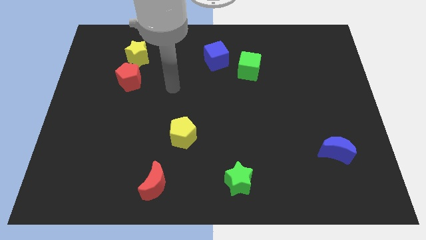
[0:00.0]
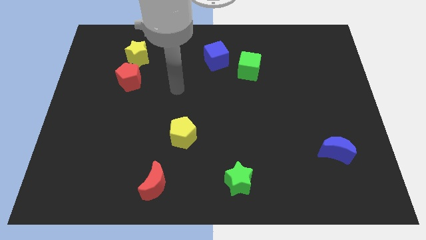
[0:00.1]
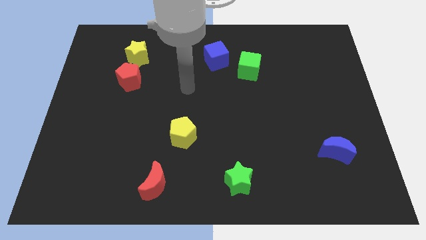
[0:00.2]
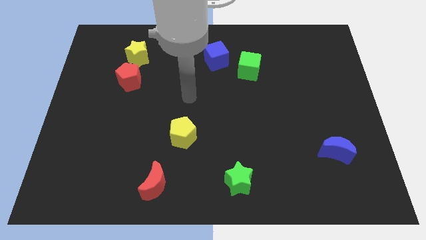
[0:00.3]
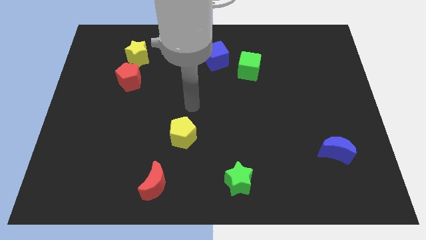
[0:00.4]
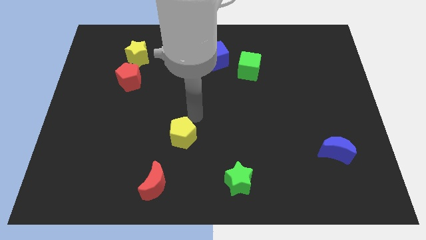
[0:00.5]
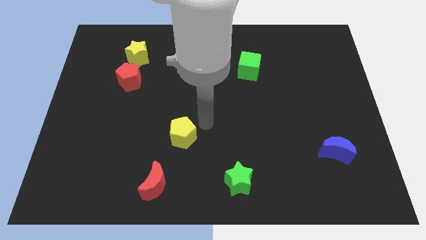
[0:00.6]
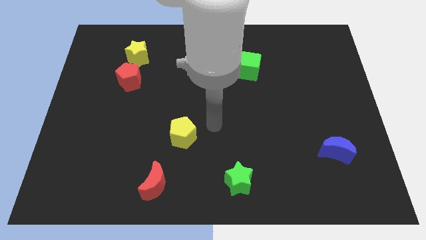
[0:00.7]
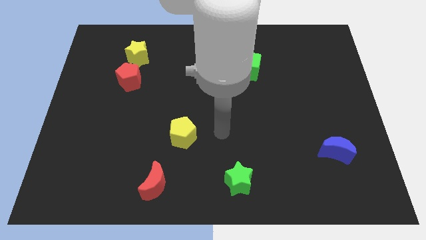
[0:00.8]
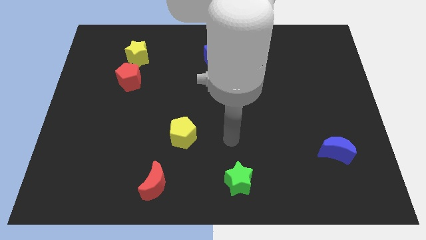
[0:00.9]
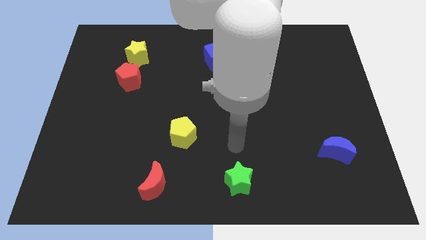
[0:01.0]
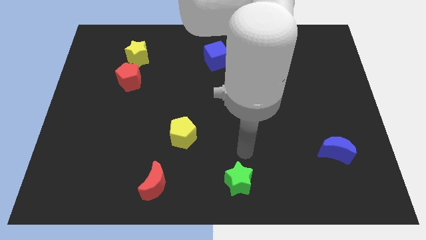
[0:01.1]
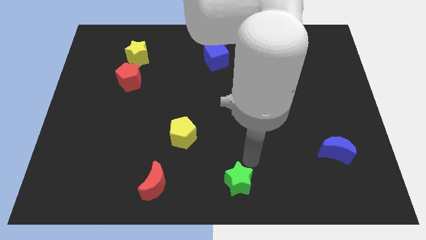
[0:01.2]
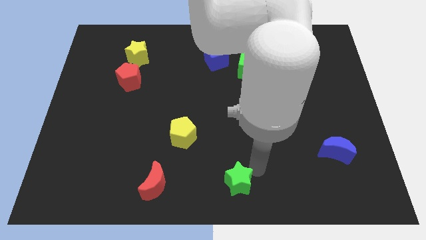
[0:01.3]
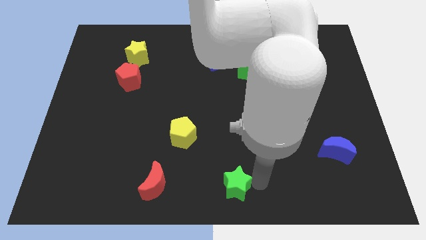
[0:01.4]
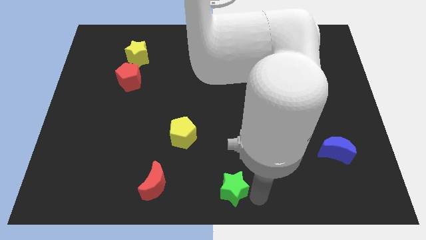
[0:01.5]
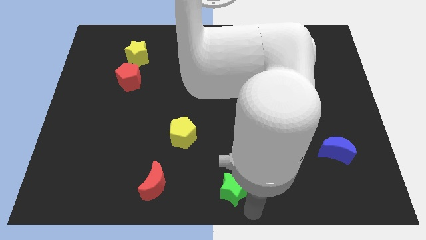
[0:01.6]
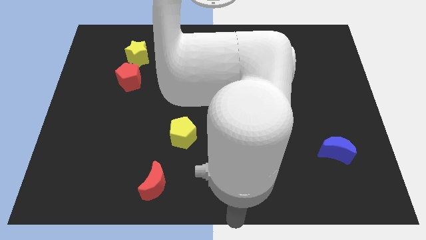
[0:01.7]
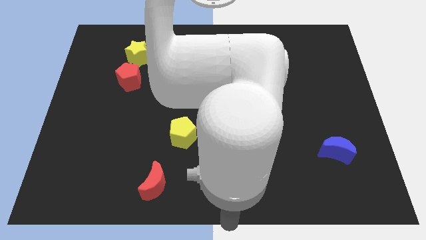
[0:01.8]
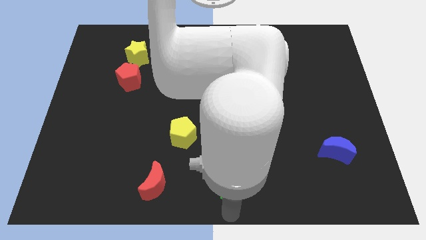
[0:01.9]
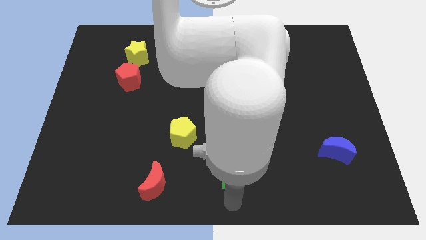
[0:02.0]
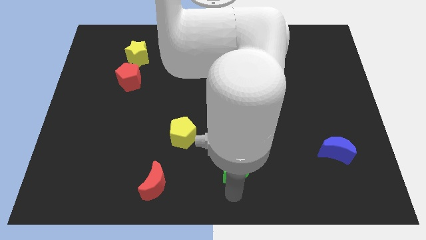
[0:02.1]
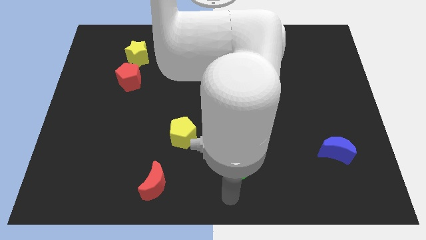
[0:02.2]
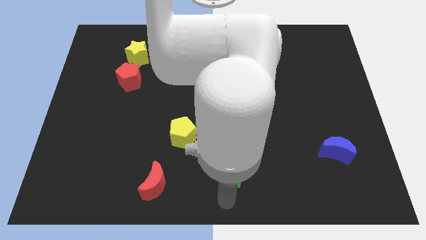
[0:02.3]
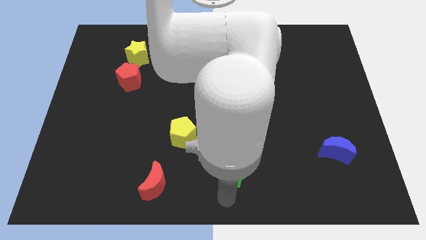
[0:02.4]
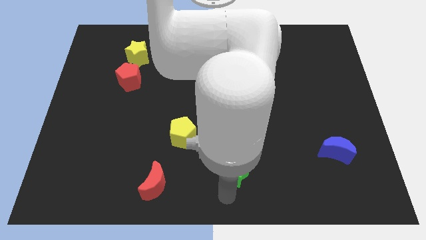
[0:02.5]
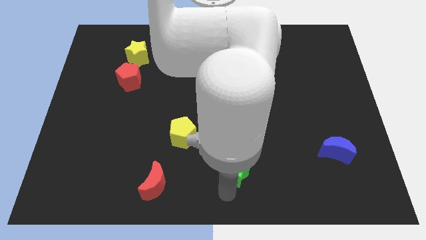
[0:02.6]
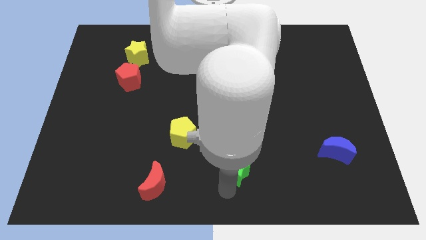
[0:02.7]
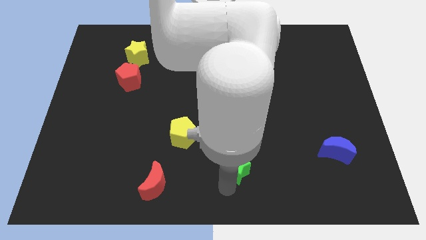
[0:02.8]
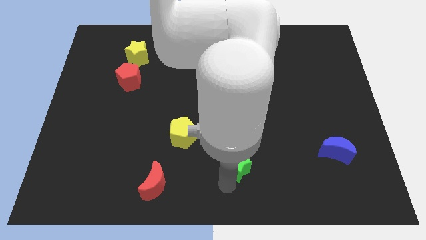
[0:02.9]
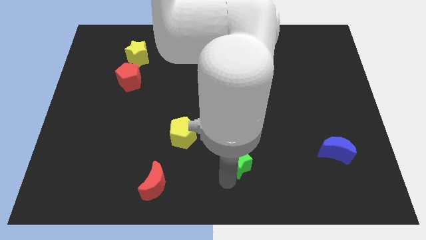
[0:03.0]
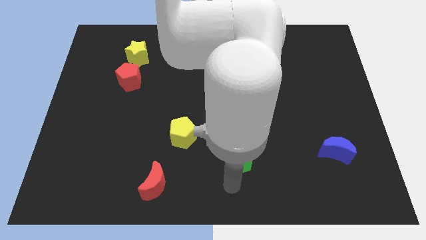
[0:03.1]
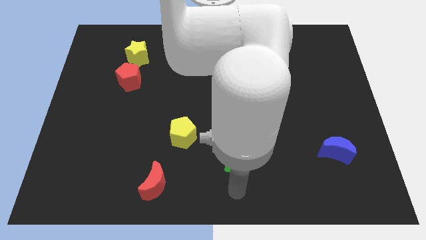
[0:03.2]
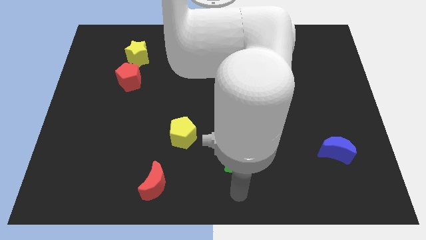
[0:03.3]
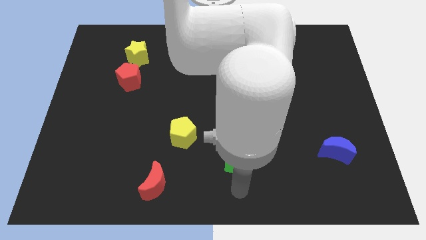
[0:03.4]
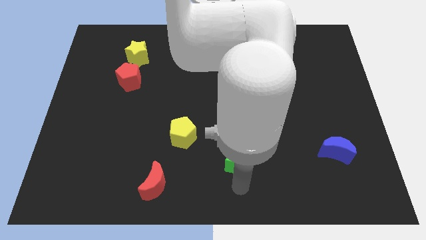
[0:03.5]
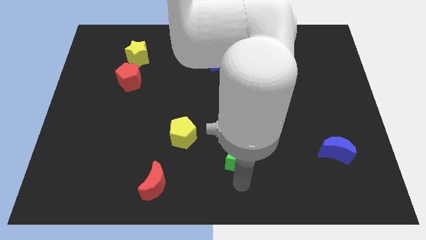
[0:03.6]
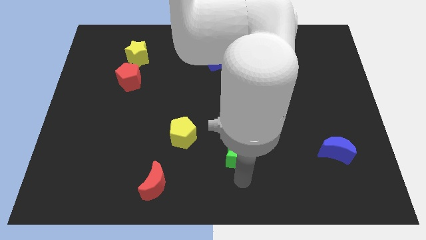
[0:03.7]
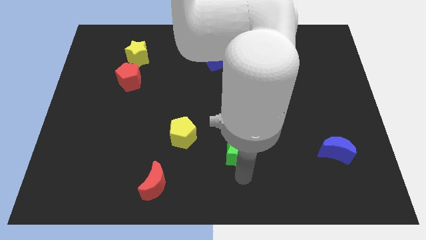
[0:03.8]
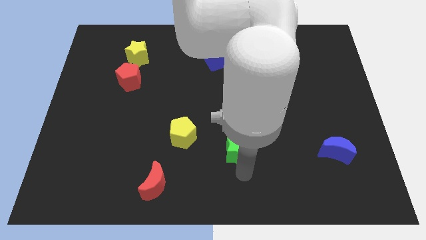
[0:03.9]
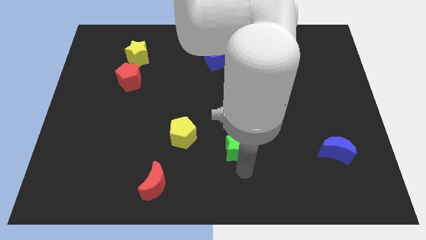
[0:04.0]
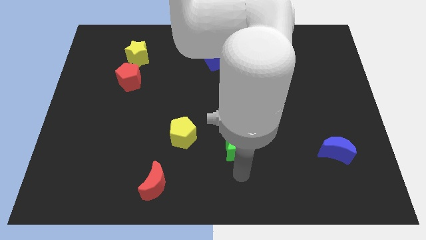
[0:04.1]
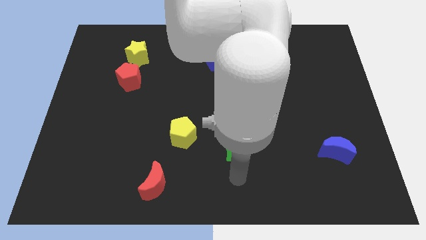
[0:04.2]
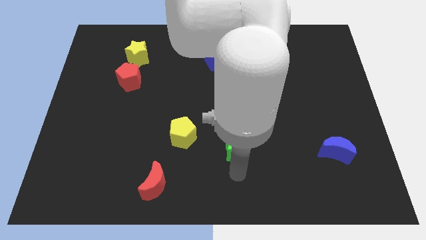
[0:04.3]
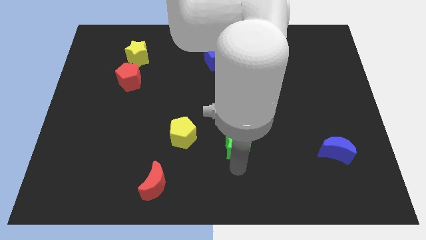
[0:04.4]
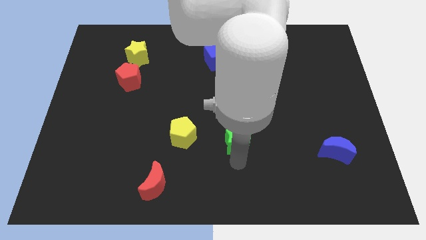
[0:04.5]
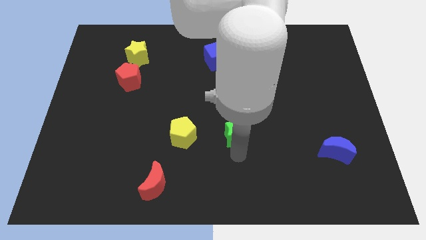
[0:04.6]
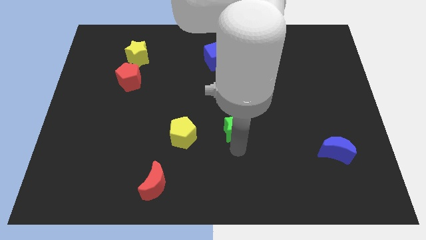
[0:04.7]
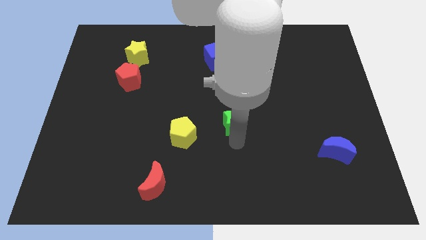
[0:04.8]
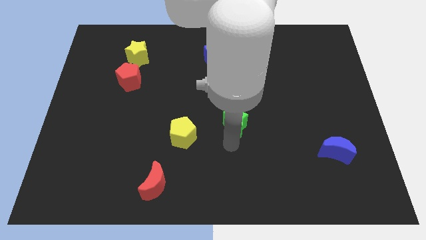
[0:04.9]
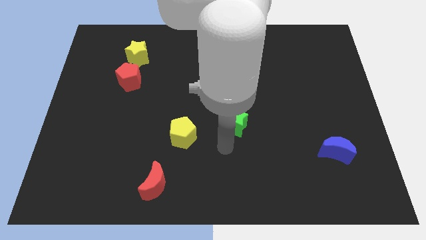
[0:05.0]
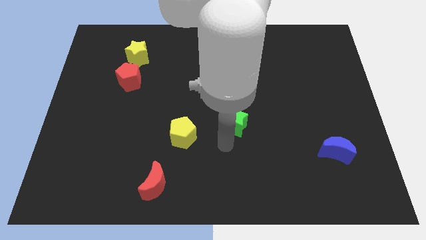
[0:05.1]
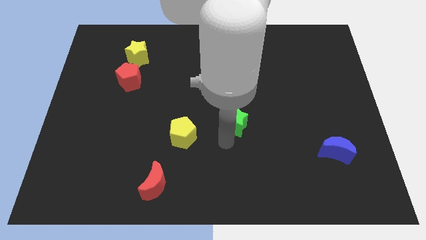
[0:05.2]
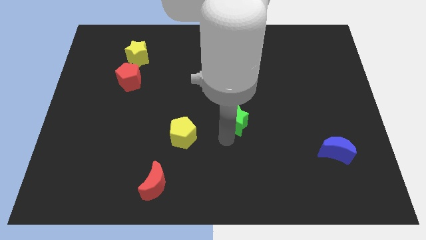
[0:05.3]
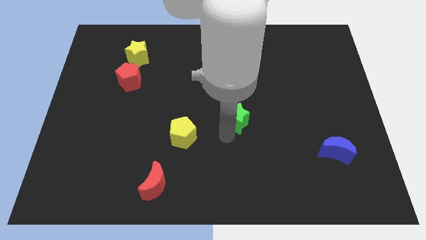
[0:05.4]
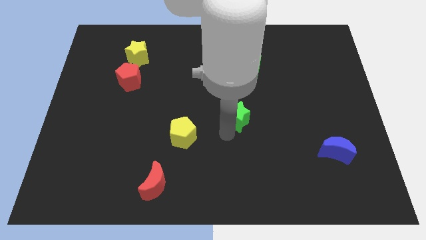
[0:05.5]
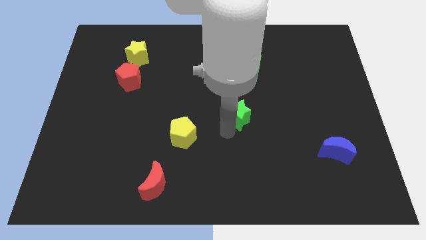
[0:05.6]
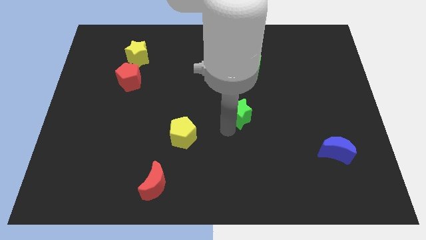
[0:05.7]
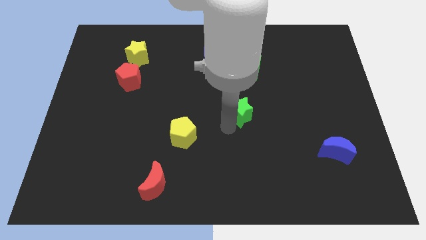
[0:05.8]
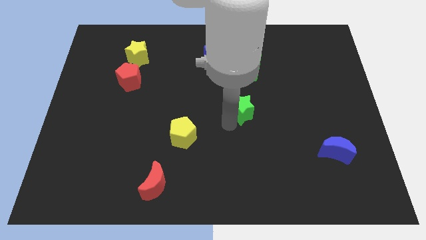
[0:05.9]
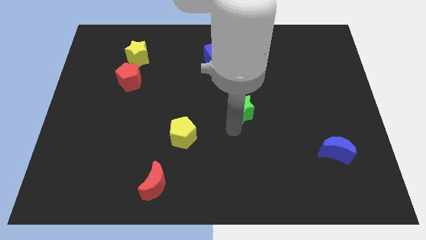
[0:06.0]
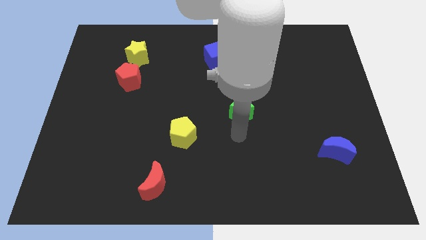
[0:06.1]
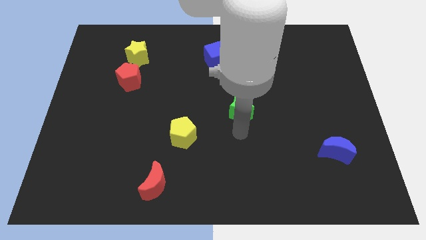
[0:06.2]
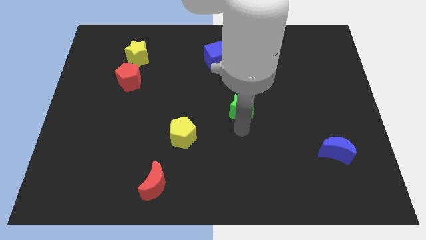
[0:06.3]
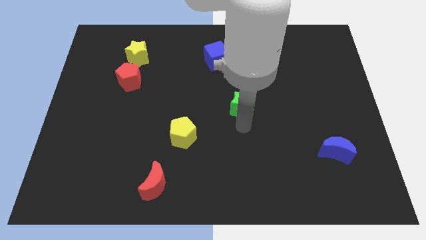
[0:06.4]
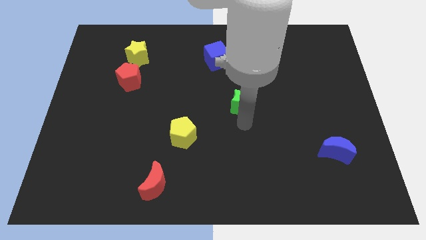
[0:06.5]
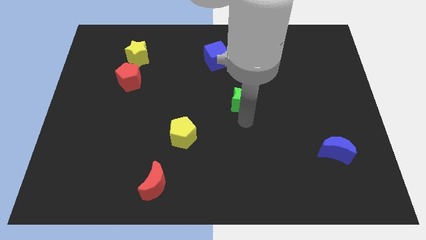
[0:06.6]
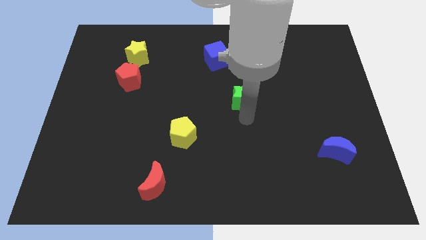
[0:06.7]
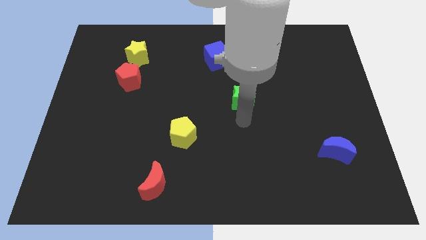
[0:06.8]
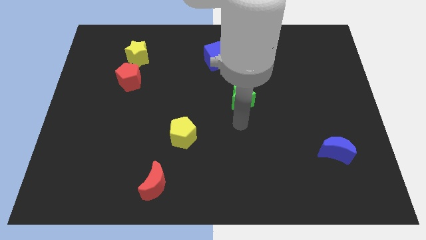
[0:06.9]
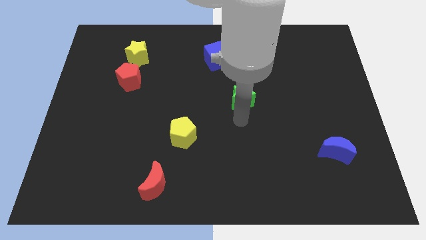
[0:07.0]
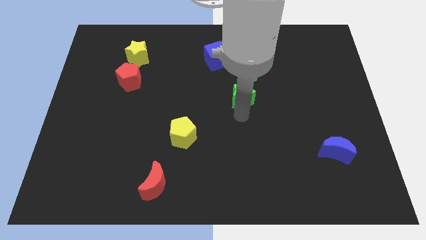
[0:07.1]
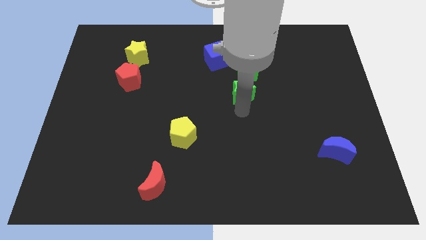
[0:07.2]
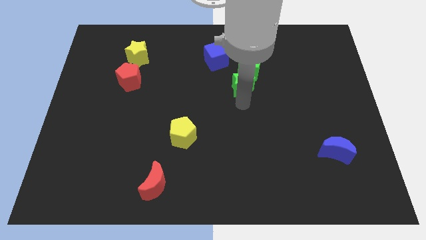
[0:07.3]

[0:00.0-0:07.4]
put the green star to the green cube
